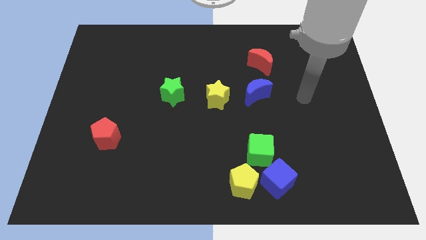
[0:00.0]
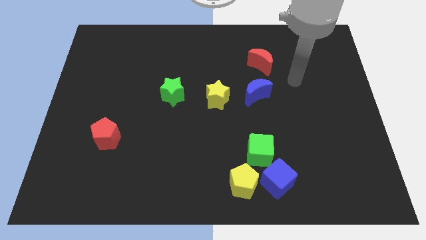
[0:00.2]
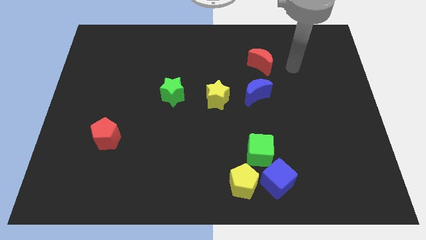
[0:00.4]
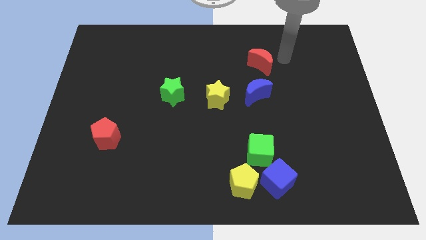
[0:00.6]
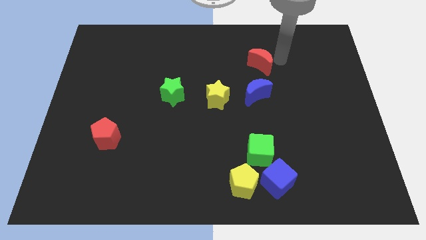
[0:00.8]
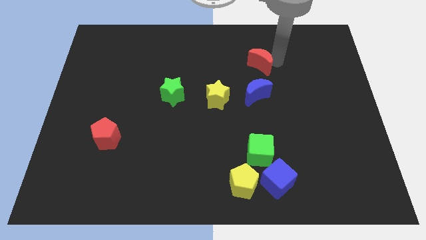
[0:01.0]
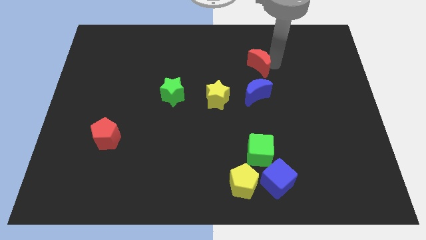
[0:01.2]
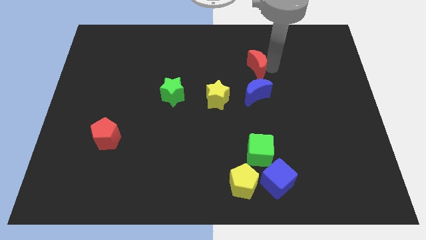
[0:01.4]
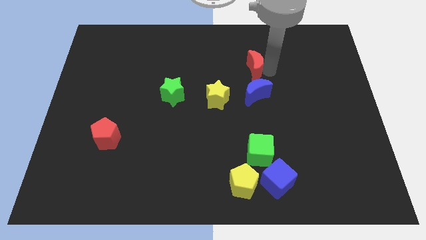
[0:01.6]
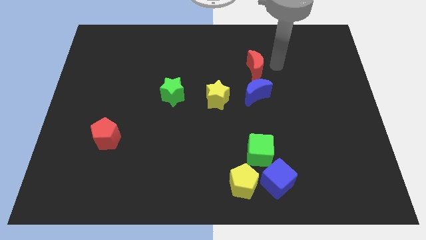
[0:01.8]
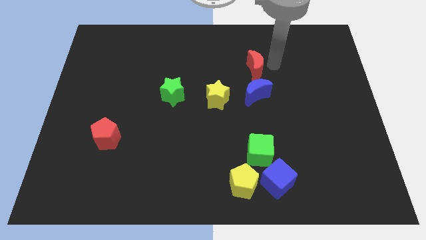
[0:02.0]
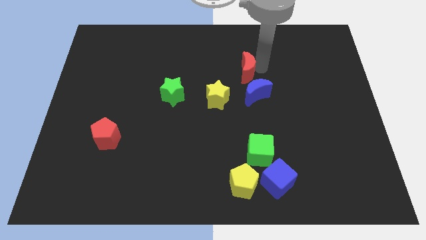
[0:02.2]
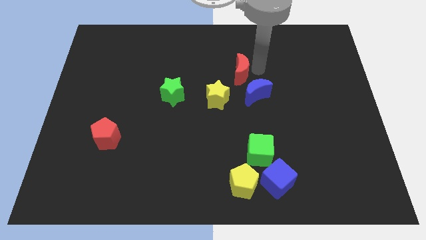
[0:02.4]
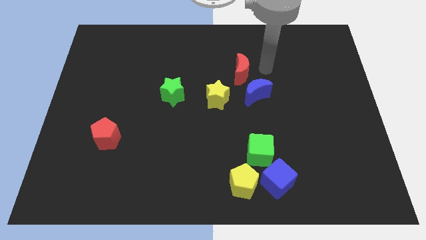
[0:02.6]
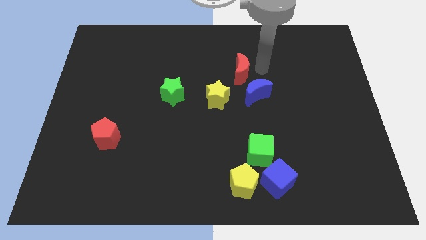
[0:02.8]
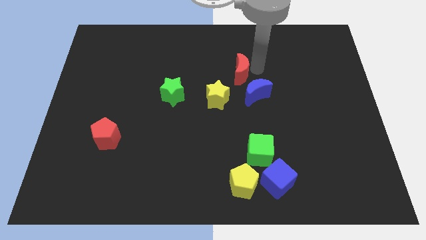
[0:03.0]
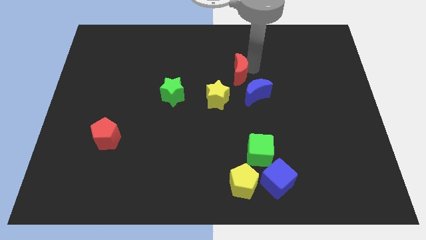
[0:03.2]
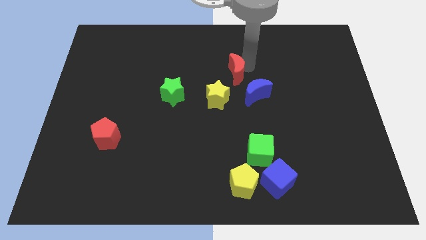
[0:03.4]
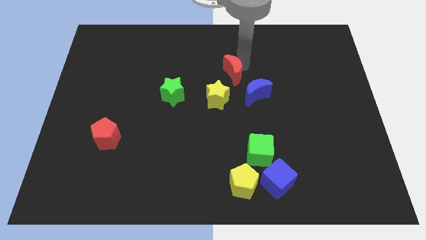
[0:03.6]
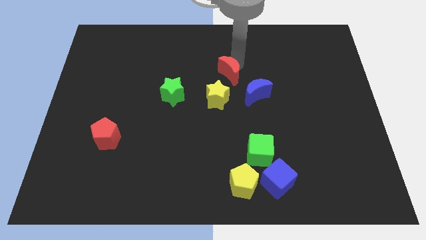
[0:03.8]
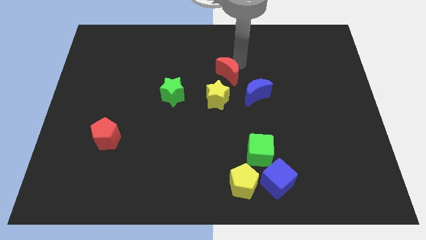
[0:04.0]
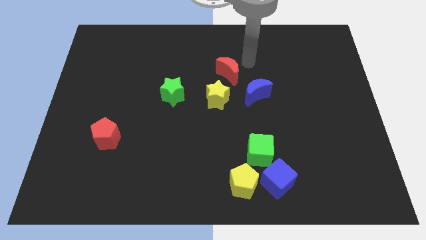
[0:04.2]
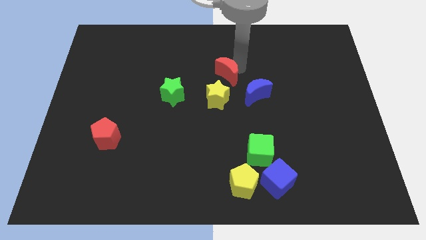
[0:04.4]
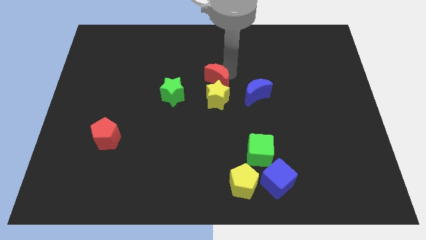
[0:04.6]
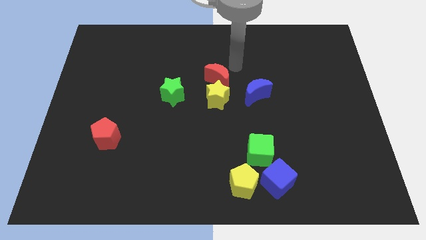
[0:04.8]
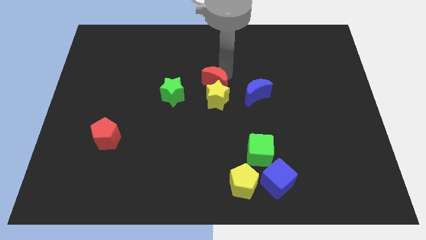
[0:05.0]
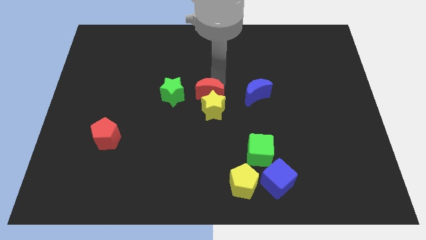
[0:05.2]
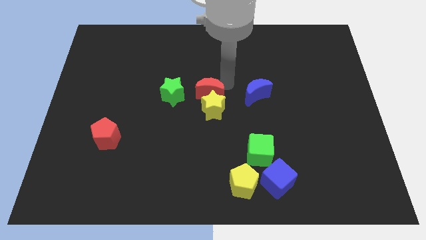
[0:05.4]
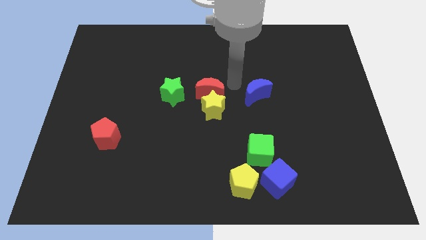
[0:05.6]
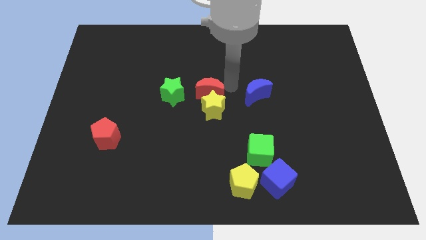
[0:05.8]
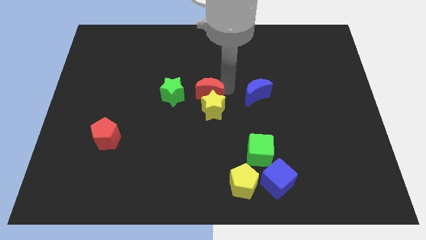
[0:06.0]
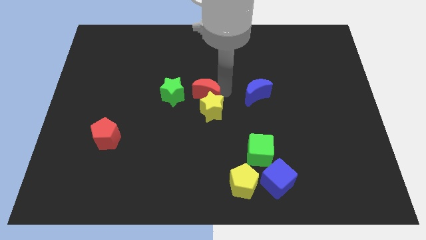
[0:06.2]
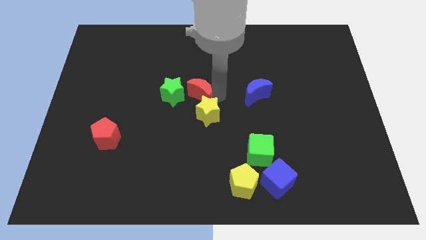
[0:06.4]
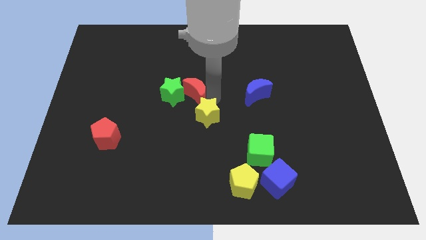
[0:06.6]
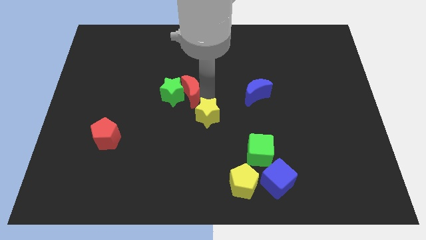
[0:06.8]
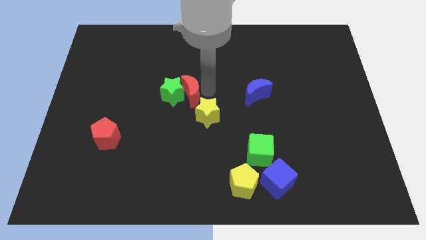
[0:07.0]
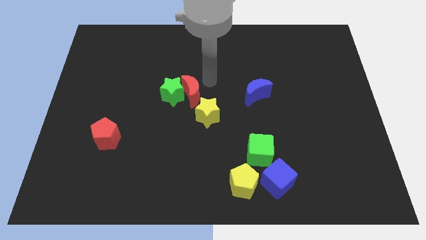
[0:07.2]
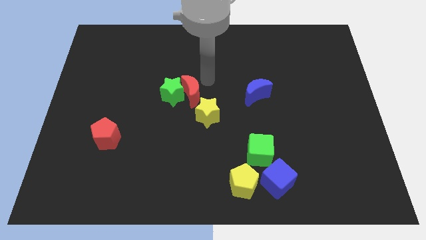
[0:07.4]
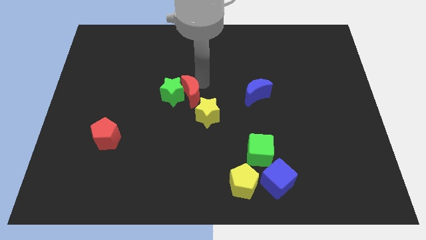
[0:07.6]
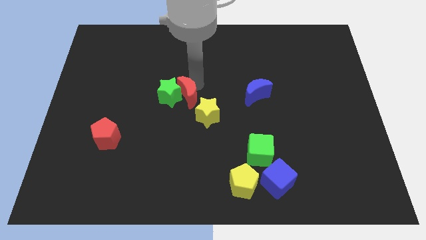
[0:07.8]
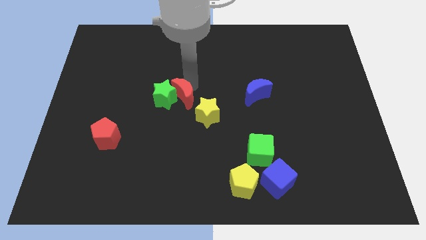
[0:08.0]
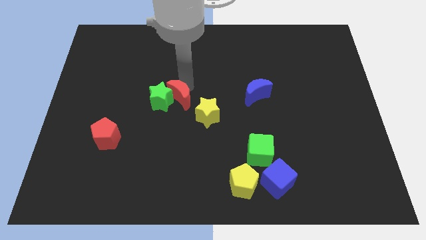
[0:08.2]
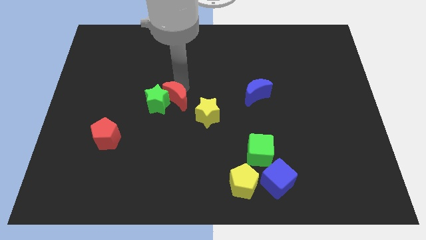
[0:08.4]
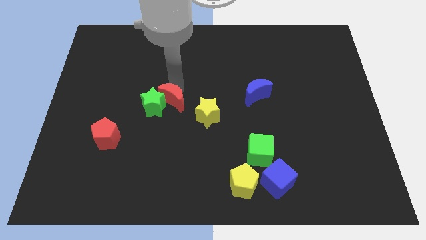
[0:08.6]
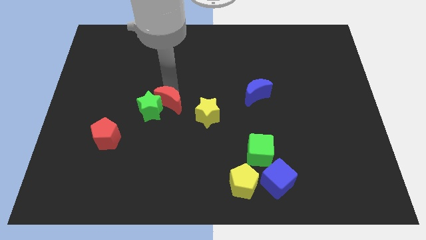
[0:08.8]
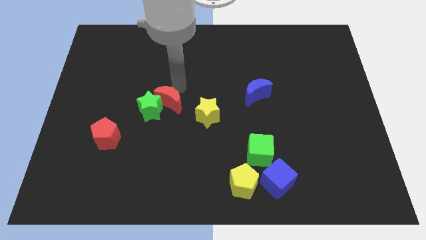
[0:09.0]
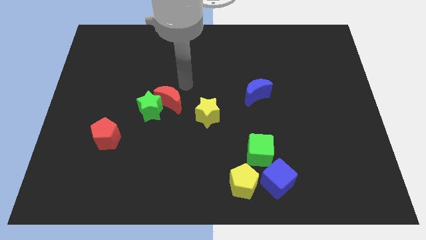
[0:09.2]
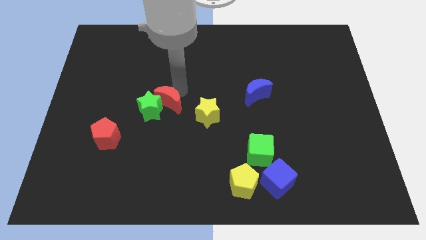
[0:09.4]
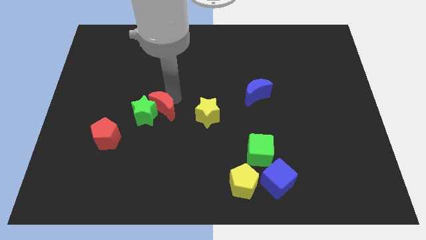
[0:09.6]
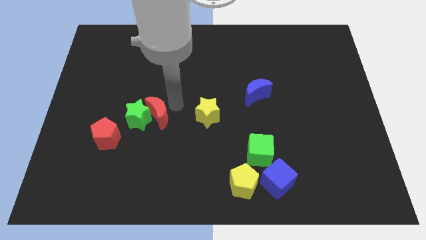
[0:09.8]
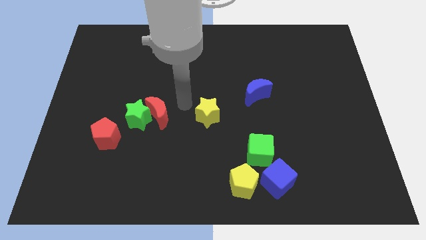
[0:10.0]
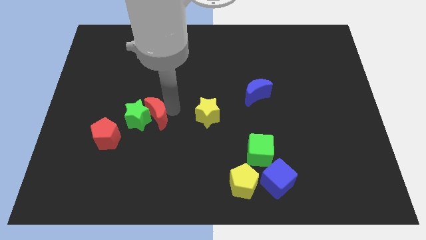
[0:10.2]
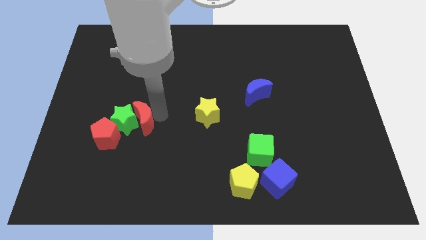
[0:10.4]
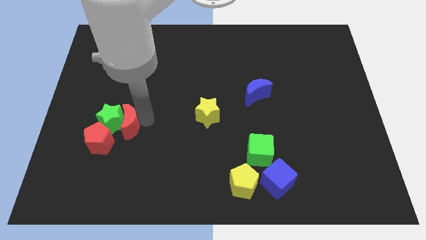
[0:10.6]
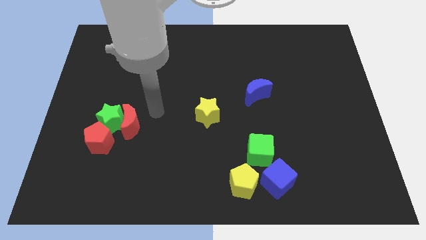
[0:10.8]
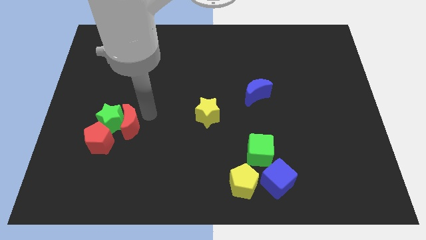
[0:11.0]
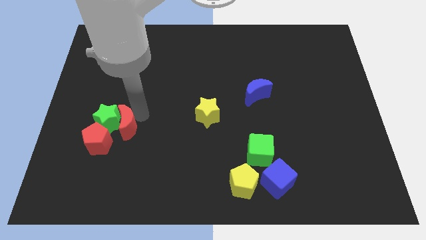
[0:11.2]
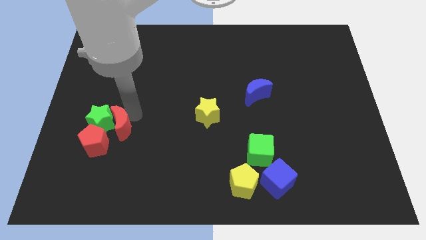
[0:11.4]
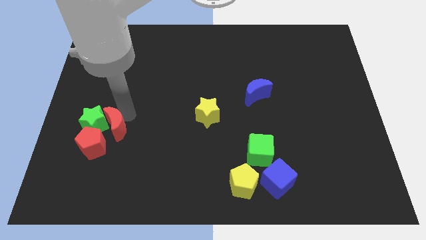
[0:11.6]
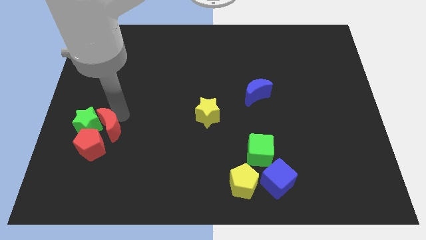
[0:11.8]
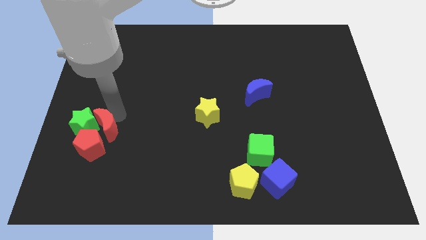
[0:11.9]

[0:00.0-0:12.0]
slide the red moon towards the red pentagon

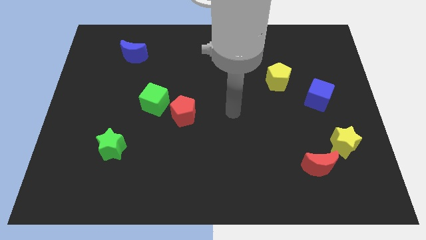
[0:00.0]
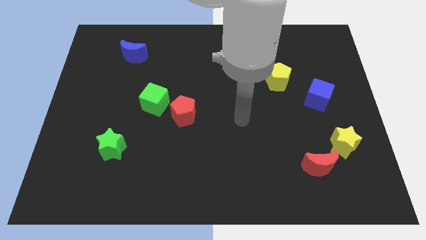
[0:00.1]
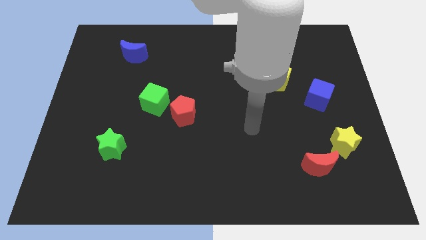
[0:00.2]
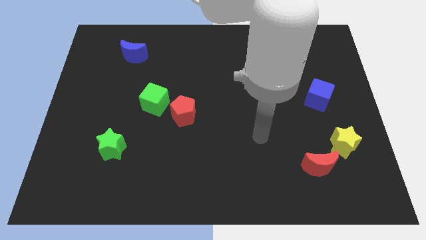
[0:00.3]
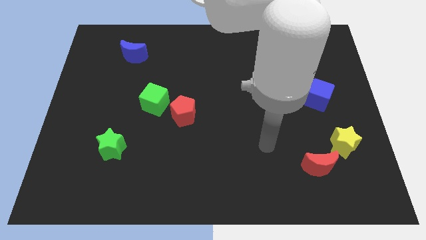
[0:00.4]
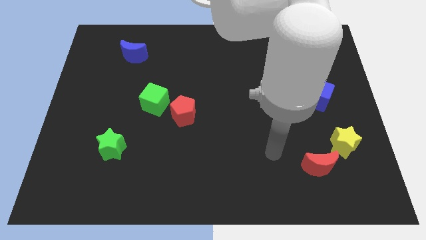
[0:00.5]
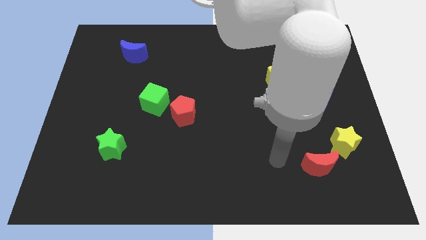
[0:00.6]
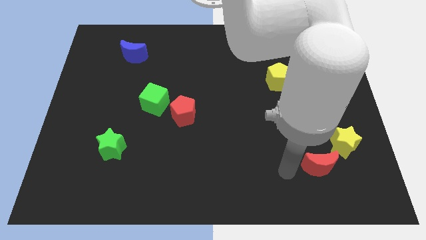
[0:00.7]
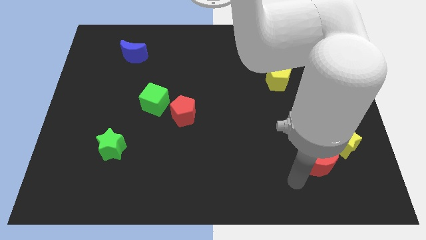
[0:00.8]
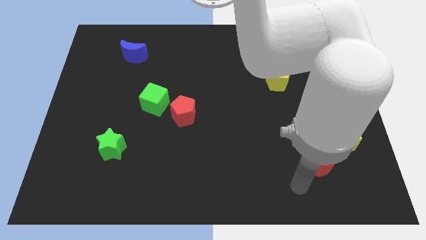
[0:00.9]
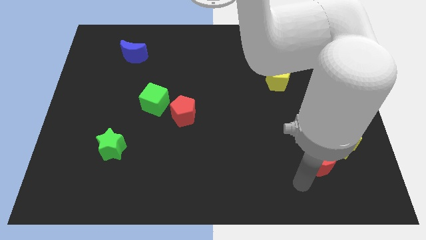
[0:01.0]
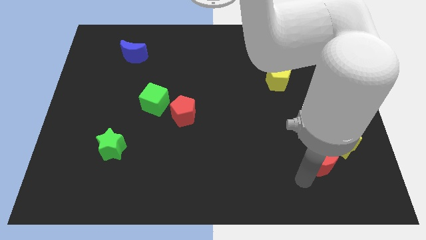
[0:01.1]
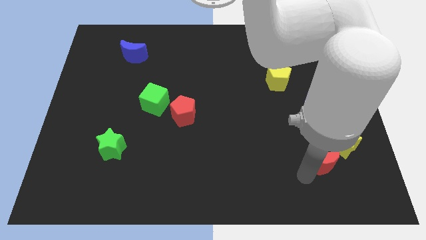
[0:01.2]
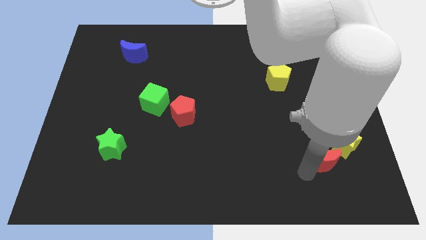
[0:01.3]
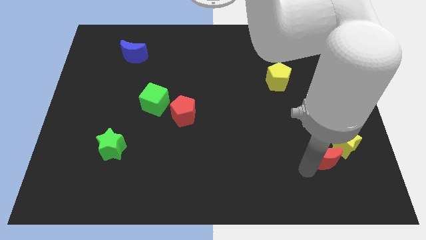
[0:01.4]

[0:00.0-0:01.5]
push the red moon next to the yellow star
